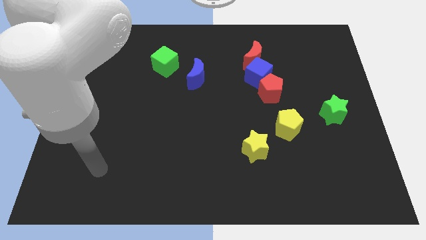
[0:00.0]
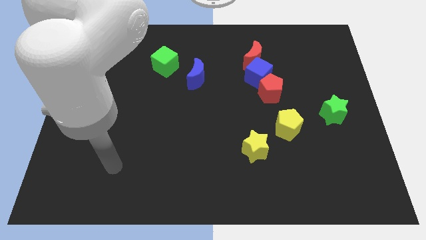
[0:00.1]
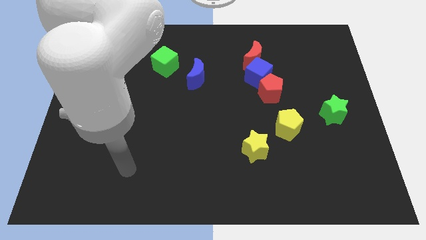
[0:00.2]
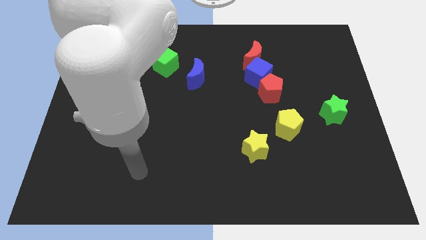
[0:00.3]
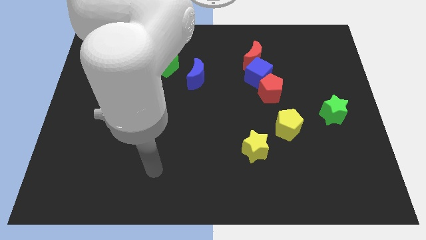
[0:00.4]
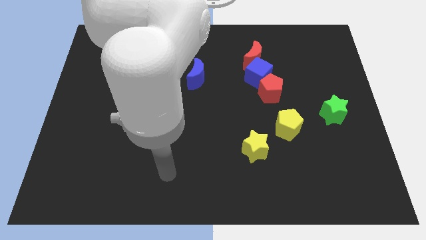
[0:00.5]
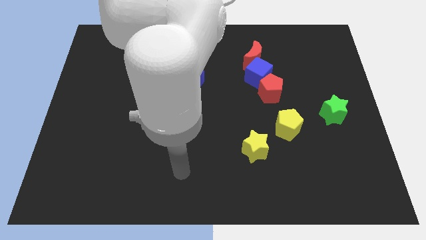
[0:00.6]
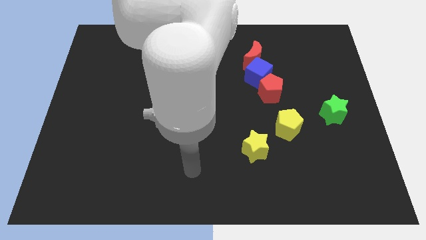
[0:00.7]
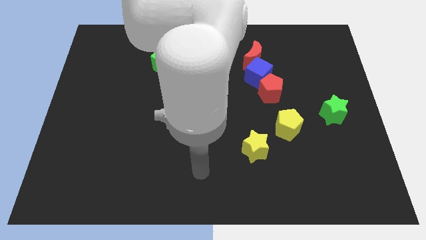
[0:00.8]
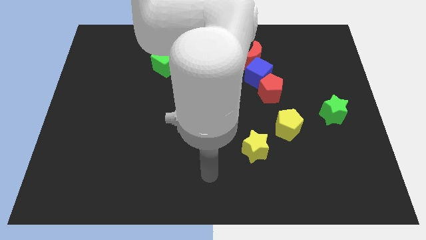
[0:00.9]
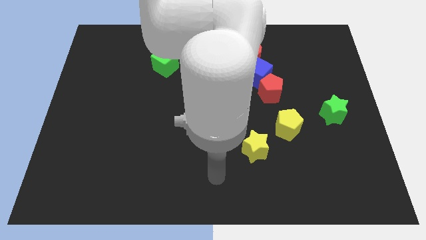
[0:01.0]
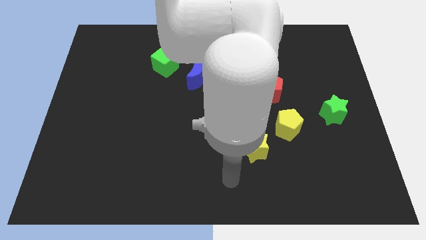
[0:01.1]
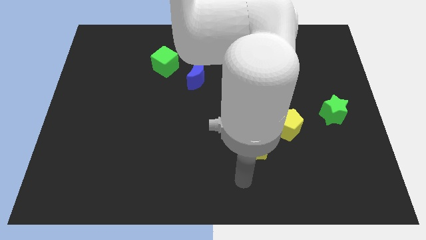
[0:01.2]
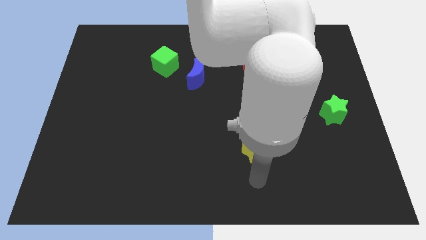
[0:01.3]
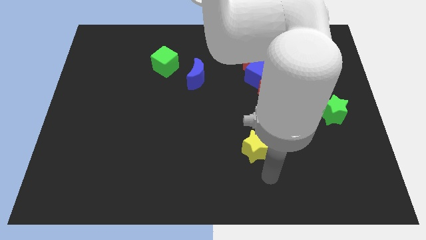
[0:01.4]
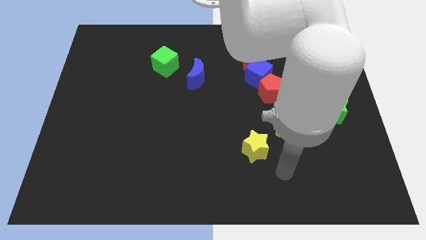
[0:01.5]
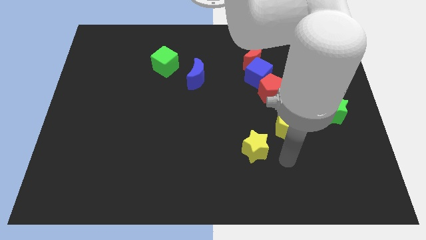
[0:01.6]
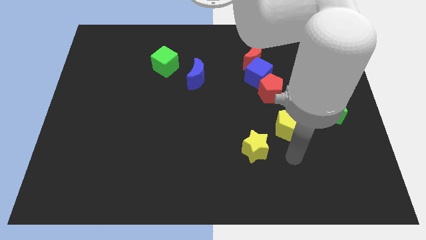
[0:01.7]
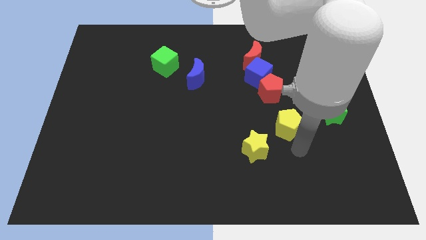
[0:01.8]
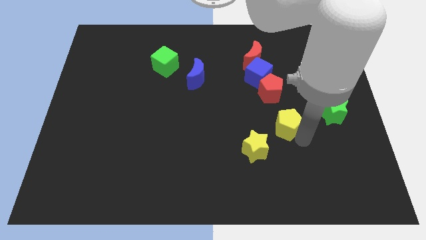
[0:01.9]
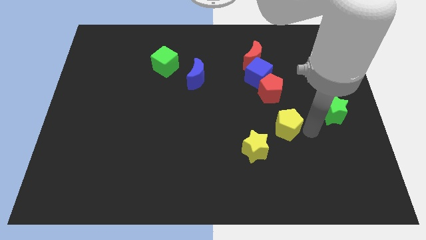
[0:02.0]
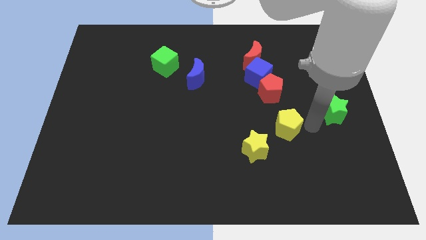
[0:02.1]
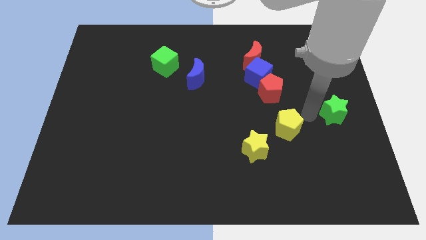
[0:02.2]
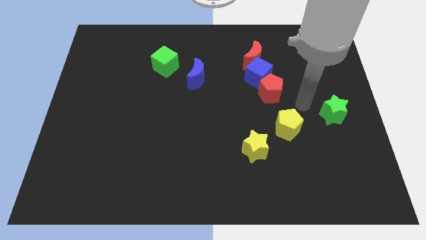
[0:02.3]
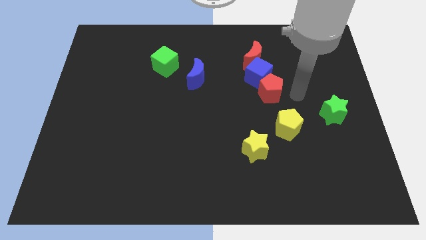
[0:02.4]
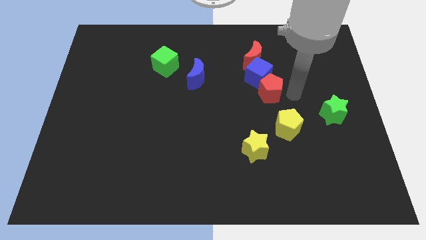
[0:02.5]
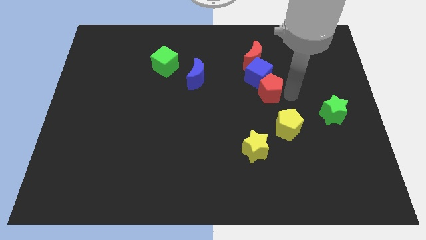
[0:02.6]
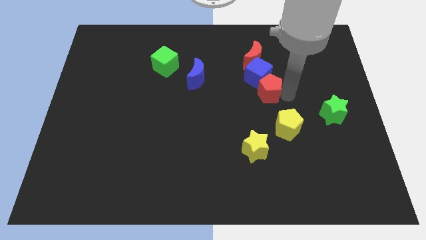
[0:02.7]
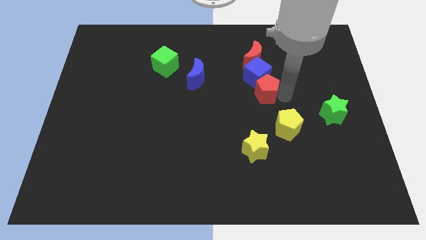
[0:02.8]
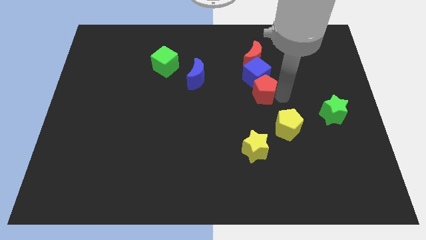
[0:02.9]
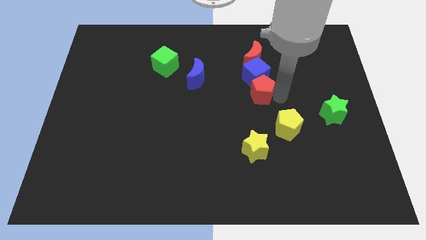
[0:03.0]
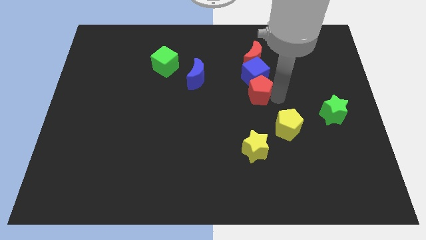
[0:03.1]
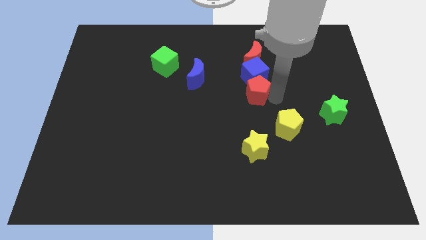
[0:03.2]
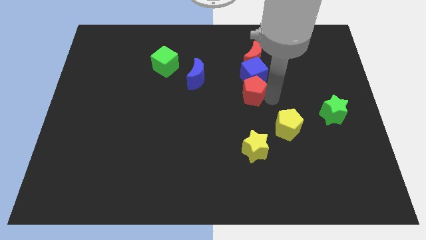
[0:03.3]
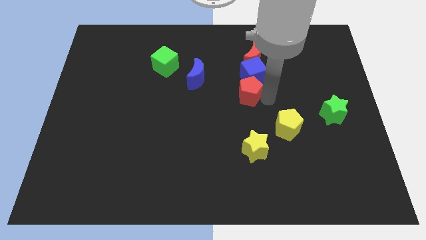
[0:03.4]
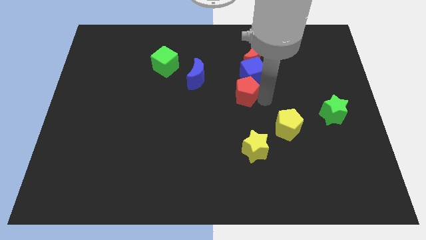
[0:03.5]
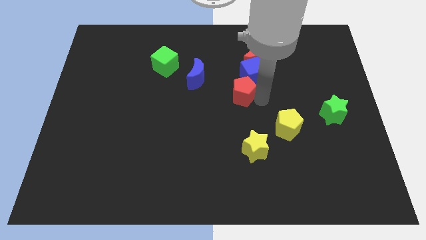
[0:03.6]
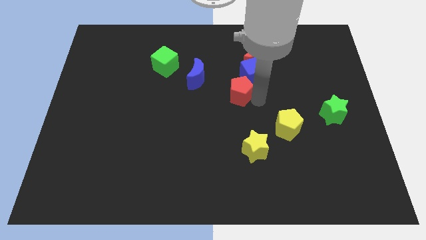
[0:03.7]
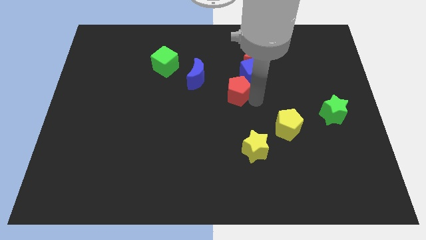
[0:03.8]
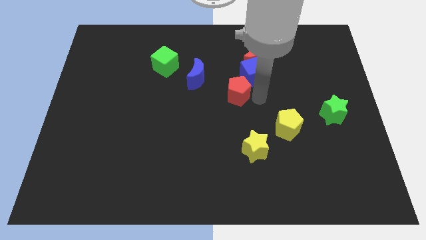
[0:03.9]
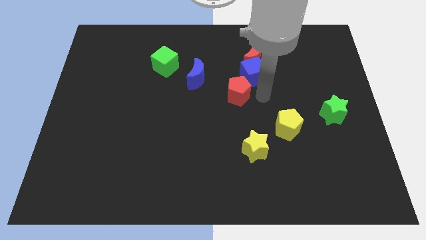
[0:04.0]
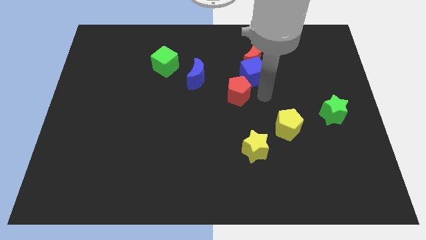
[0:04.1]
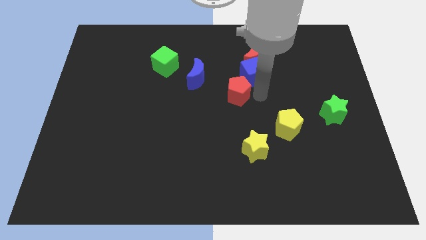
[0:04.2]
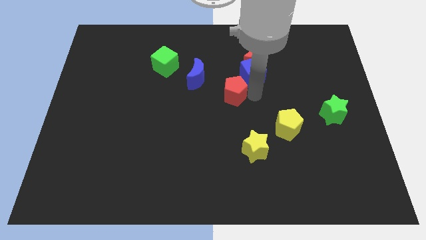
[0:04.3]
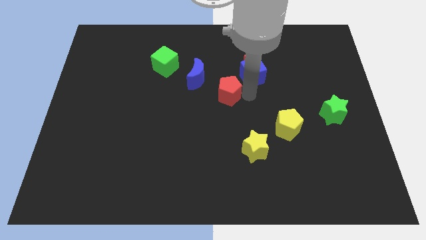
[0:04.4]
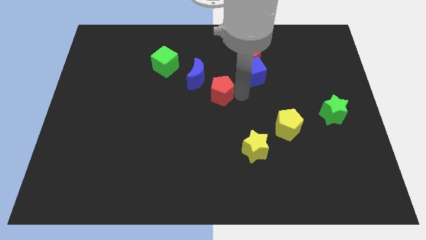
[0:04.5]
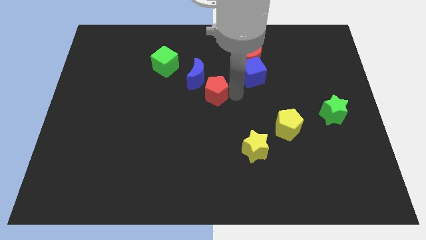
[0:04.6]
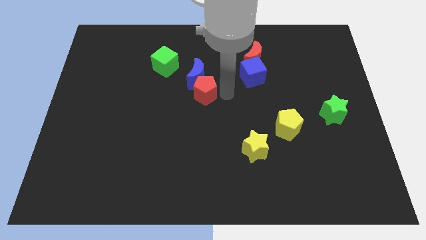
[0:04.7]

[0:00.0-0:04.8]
push the red pentagon to the bottom left of the blue moon

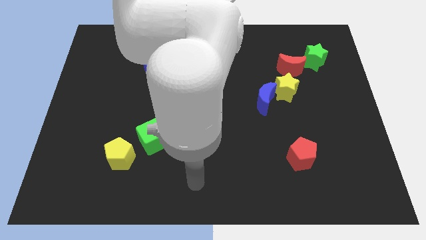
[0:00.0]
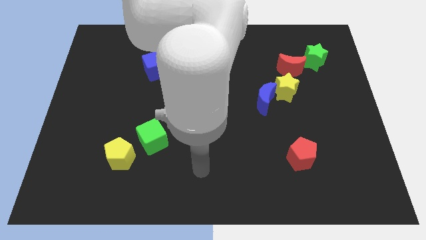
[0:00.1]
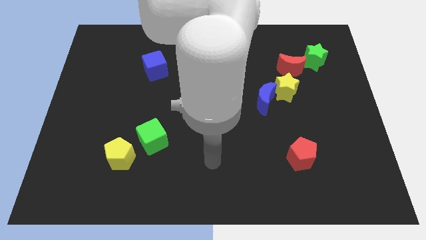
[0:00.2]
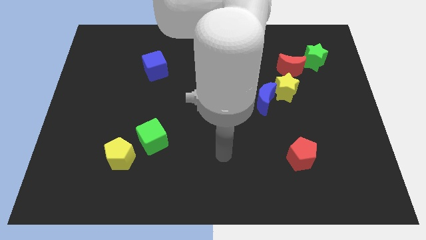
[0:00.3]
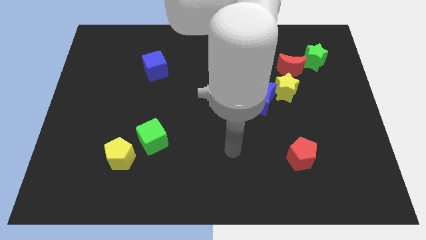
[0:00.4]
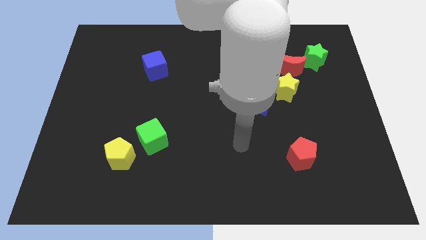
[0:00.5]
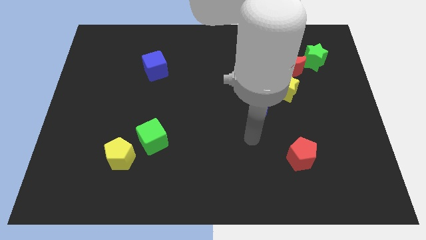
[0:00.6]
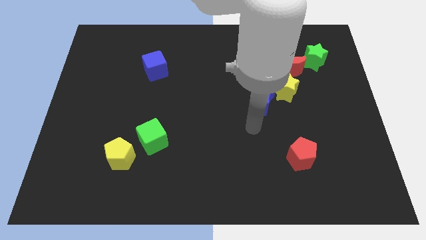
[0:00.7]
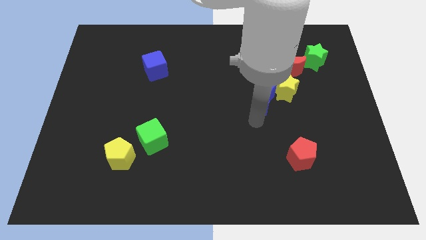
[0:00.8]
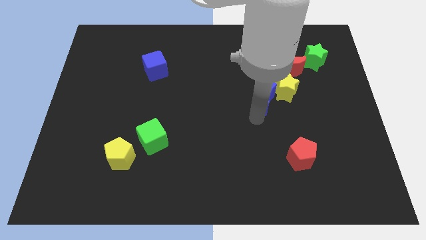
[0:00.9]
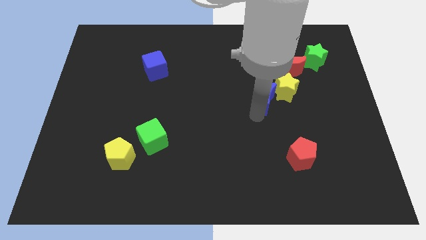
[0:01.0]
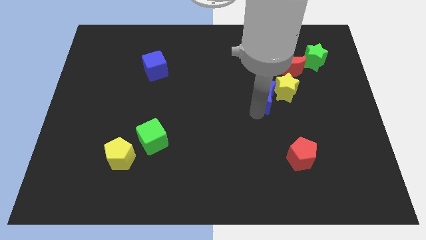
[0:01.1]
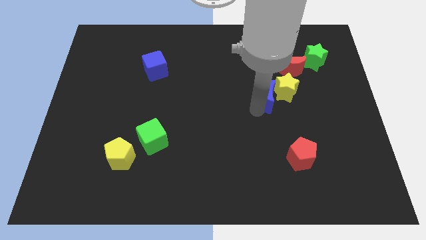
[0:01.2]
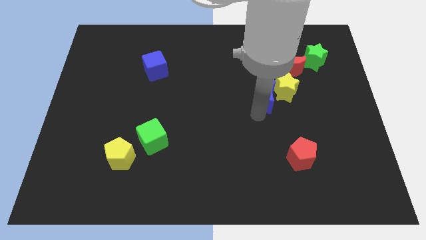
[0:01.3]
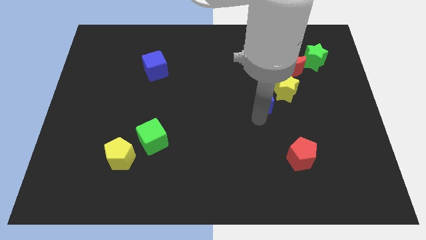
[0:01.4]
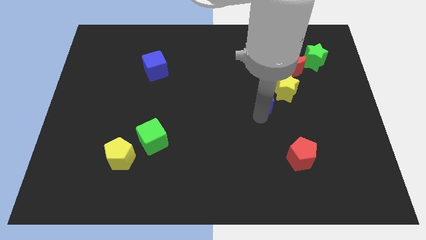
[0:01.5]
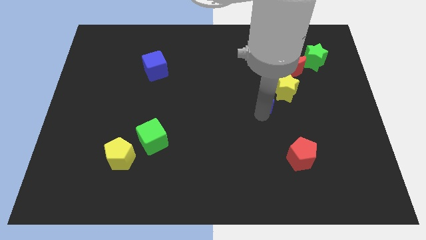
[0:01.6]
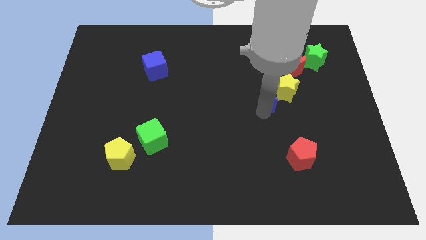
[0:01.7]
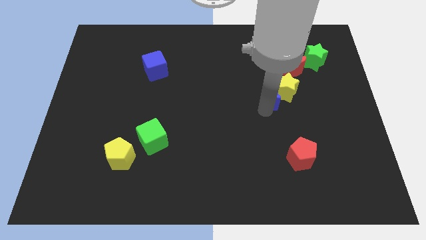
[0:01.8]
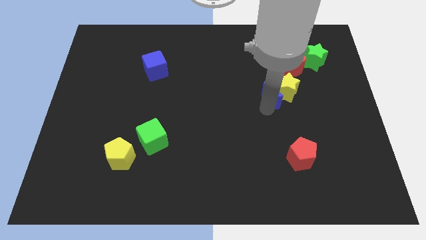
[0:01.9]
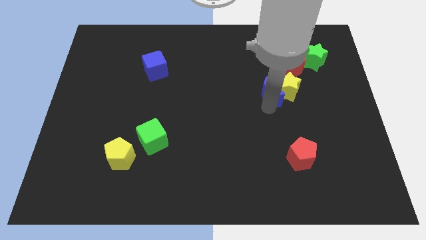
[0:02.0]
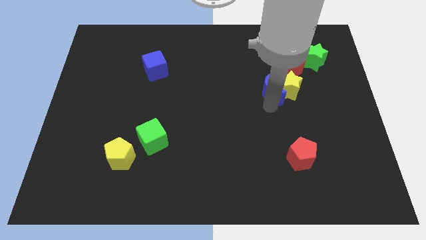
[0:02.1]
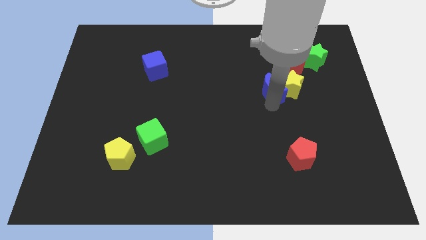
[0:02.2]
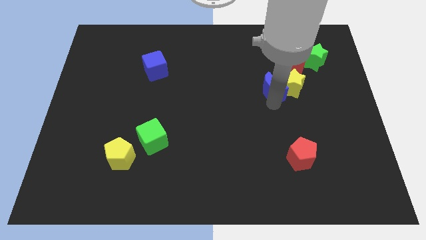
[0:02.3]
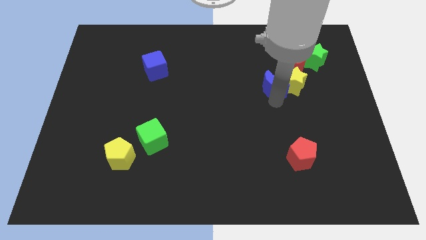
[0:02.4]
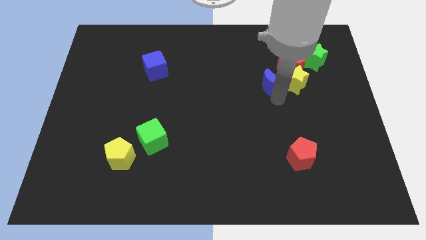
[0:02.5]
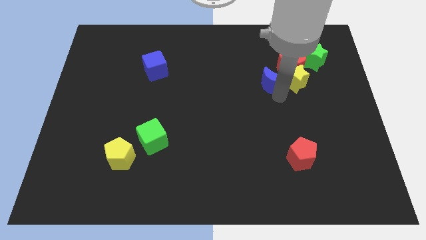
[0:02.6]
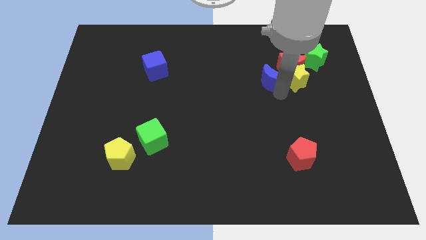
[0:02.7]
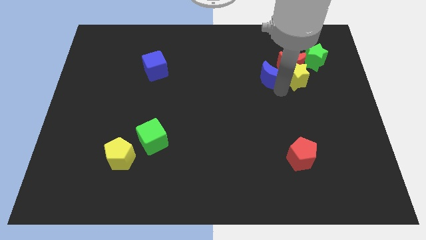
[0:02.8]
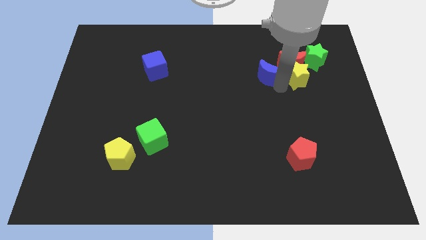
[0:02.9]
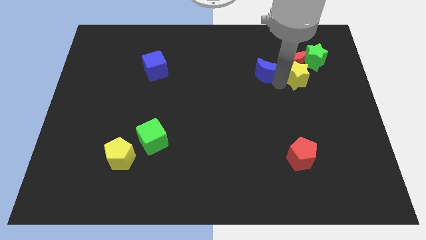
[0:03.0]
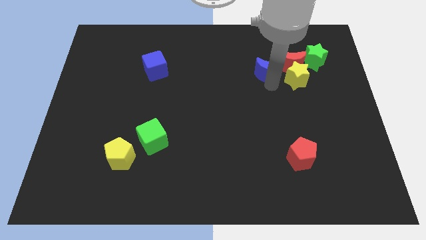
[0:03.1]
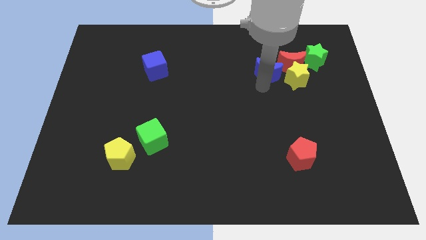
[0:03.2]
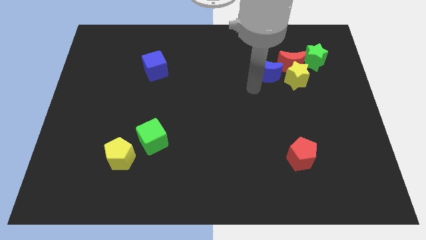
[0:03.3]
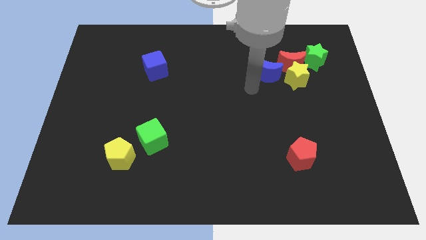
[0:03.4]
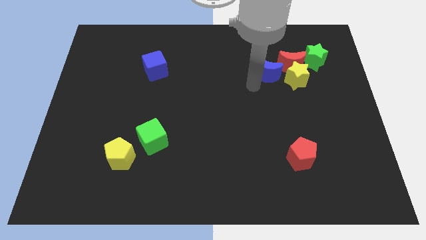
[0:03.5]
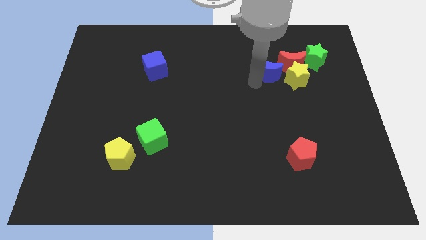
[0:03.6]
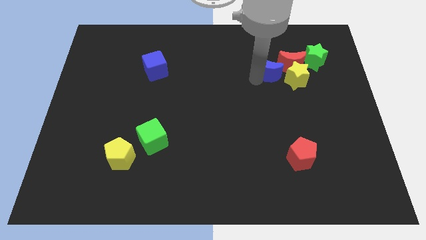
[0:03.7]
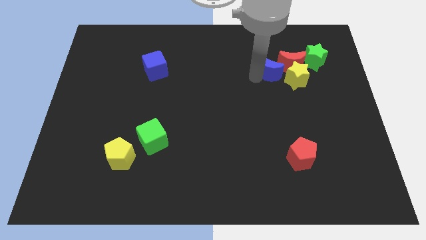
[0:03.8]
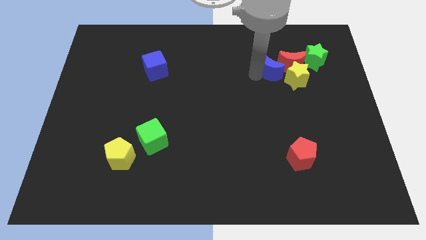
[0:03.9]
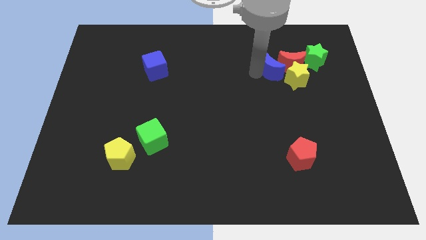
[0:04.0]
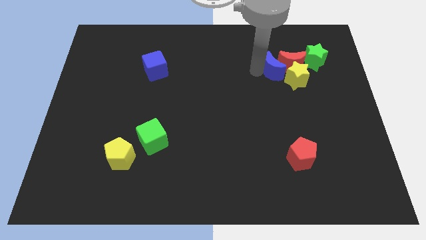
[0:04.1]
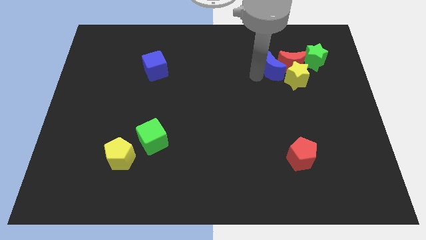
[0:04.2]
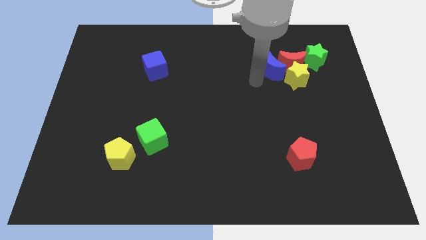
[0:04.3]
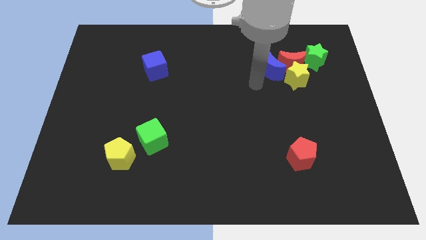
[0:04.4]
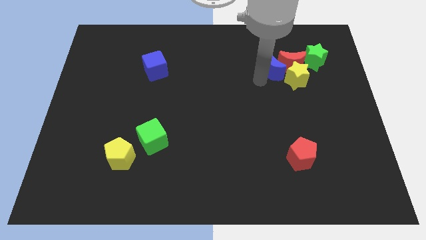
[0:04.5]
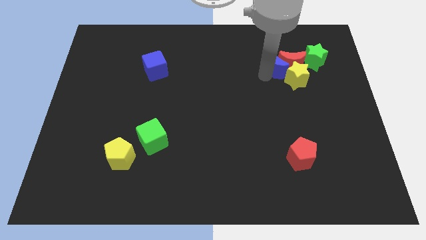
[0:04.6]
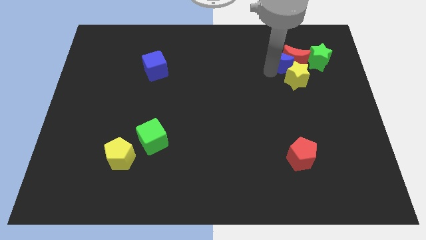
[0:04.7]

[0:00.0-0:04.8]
slide the blue moon to the top side of the yellow star
